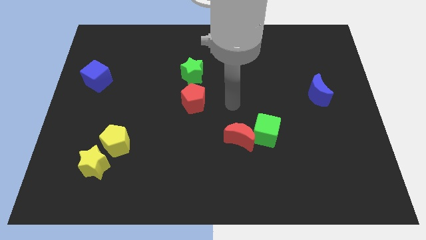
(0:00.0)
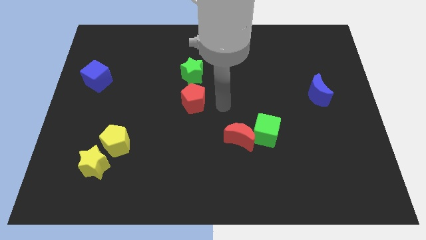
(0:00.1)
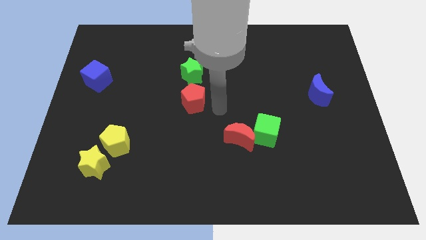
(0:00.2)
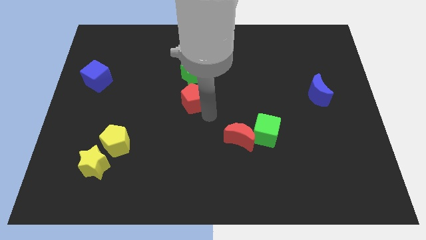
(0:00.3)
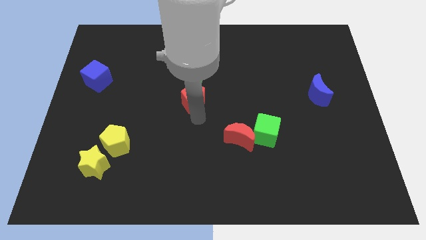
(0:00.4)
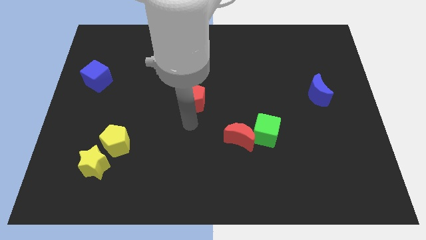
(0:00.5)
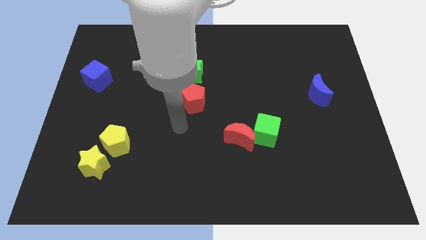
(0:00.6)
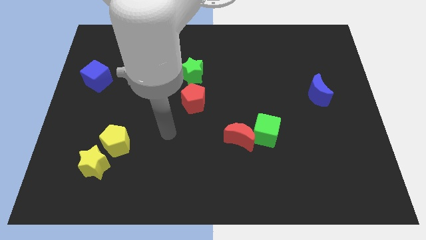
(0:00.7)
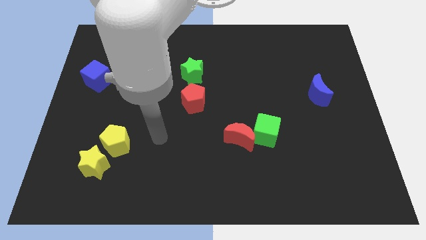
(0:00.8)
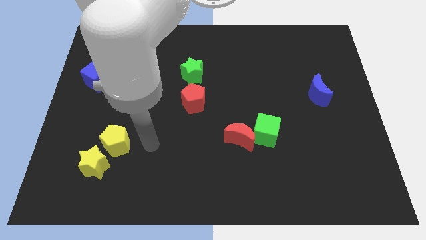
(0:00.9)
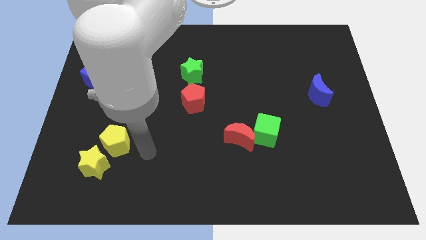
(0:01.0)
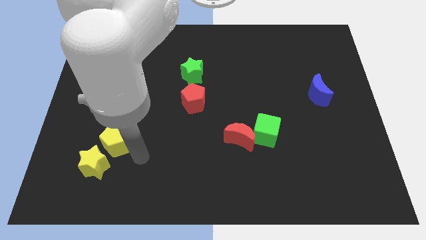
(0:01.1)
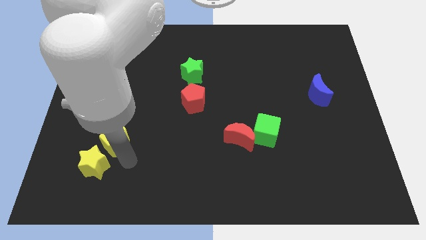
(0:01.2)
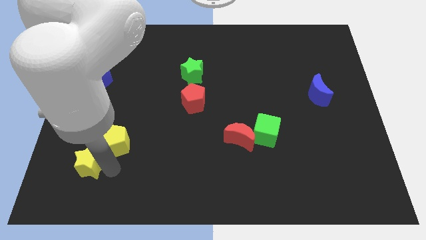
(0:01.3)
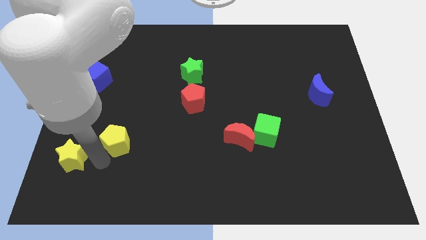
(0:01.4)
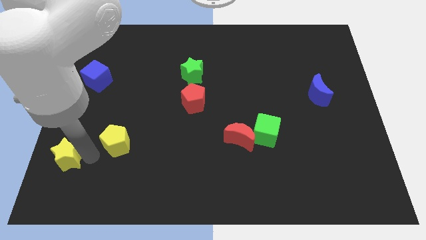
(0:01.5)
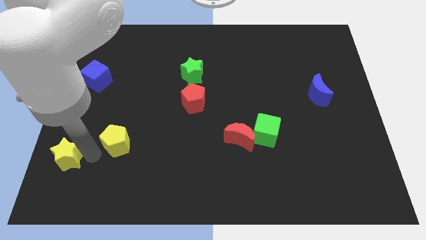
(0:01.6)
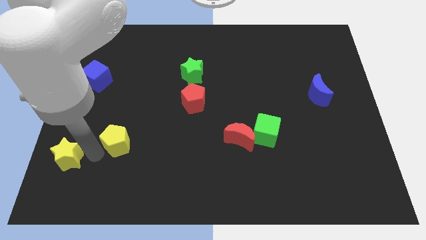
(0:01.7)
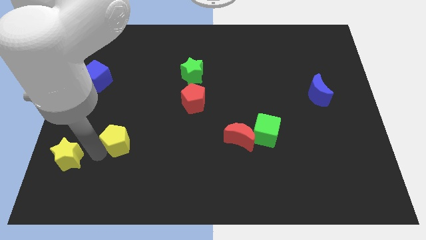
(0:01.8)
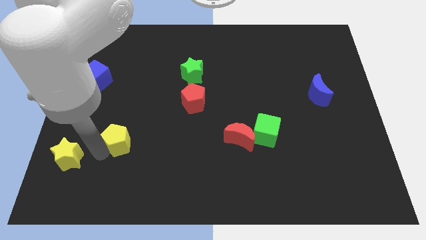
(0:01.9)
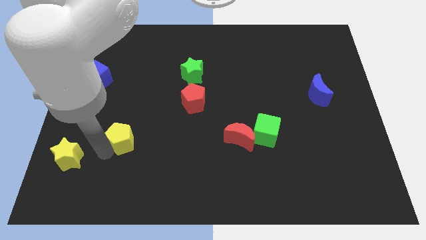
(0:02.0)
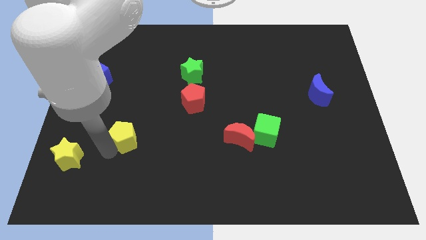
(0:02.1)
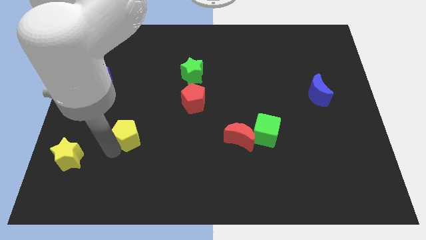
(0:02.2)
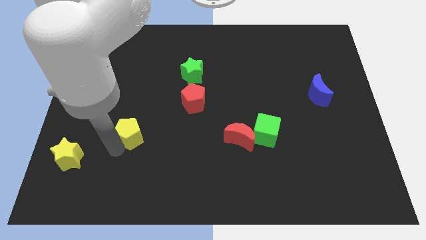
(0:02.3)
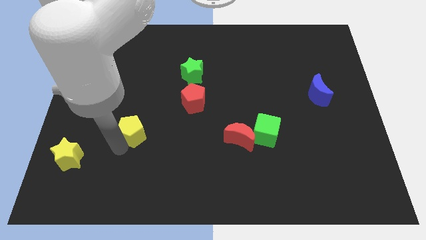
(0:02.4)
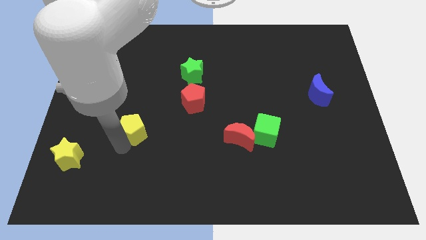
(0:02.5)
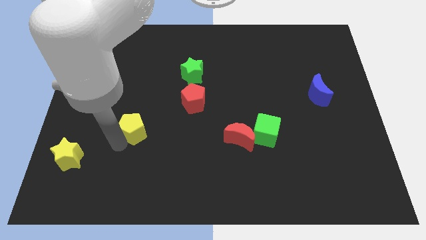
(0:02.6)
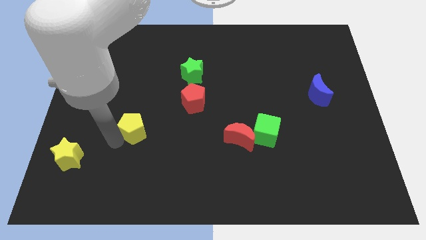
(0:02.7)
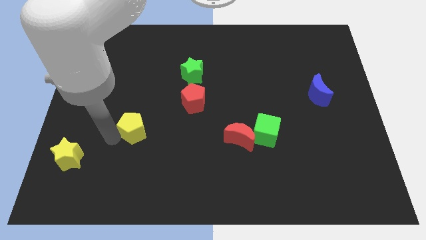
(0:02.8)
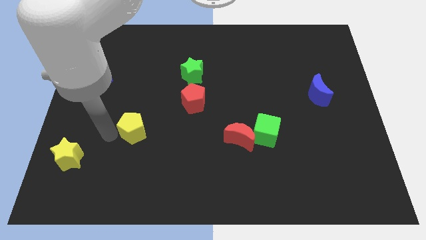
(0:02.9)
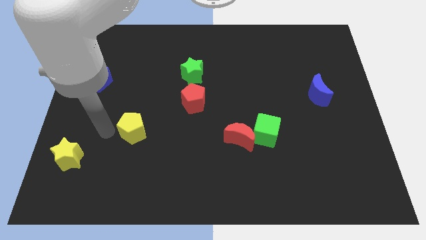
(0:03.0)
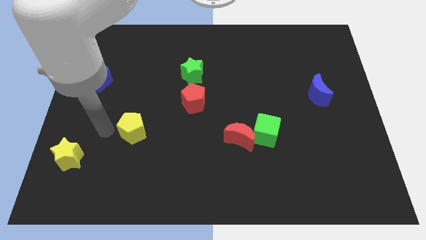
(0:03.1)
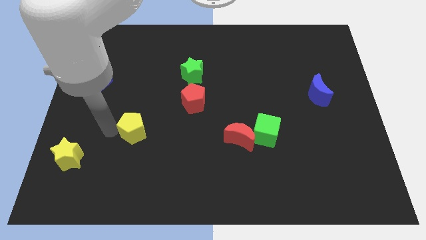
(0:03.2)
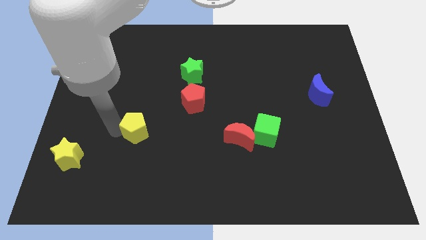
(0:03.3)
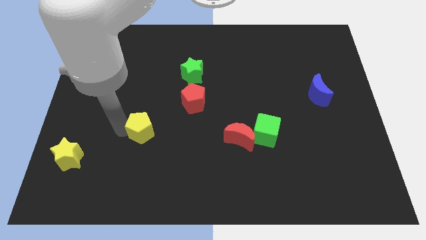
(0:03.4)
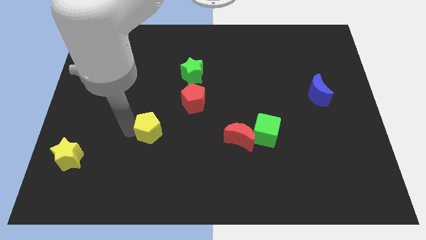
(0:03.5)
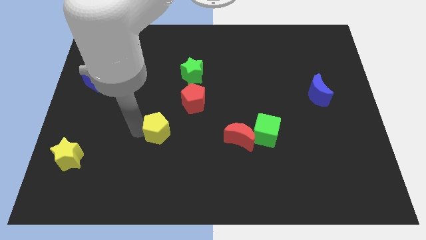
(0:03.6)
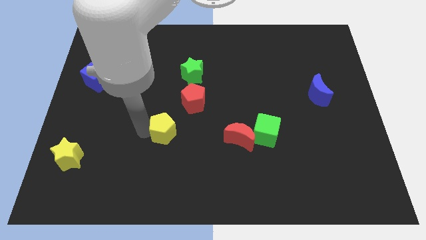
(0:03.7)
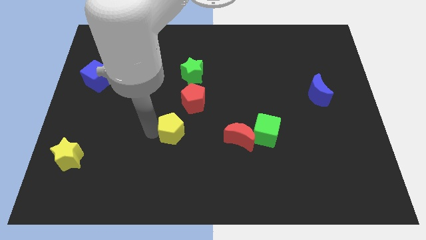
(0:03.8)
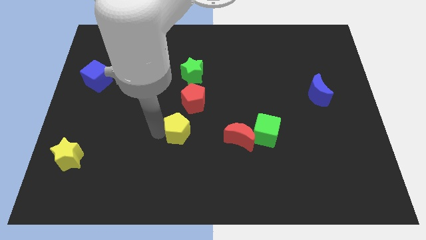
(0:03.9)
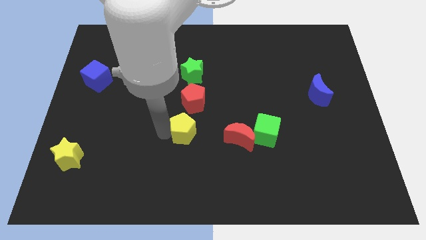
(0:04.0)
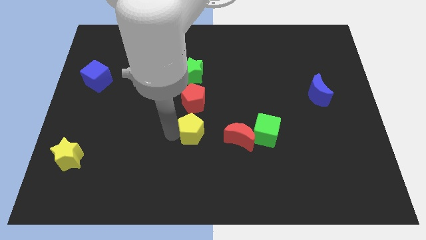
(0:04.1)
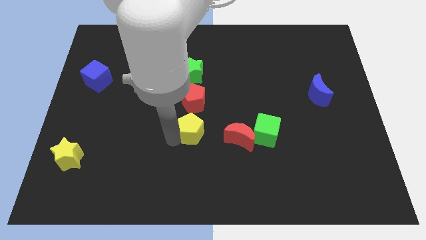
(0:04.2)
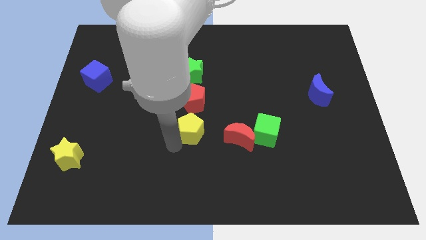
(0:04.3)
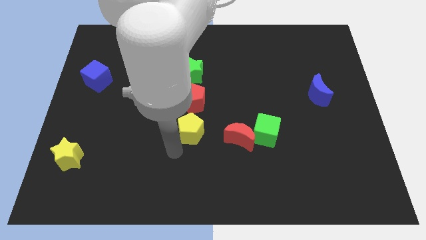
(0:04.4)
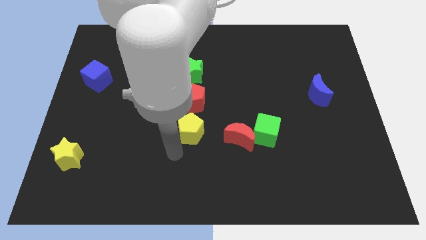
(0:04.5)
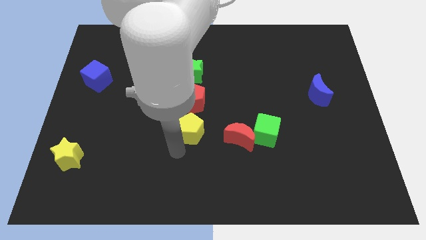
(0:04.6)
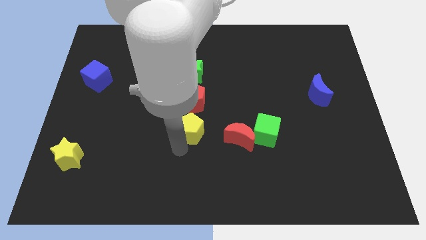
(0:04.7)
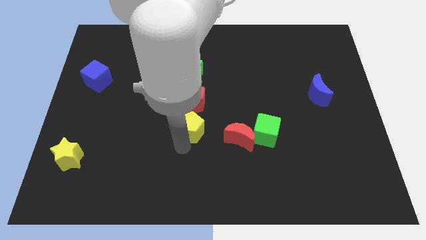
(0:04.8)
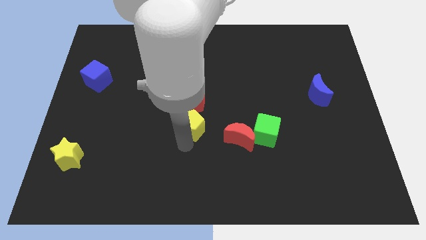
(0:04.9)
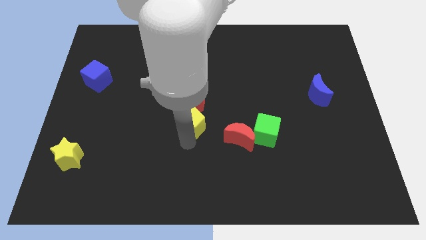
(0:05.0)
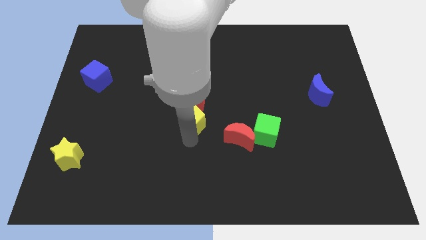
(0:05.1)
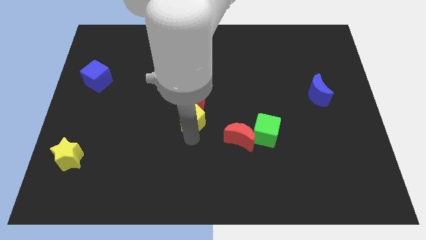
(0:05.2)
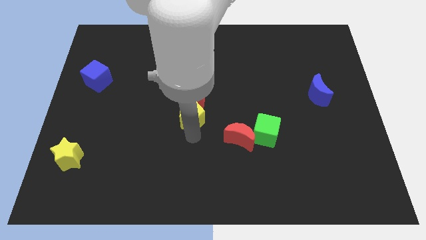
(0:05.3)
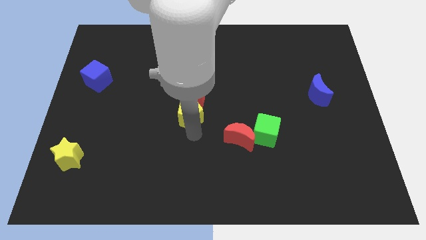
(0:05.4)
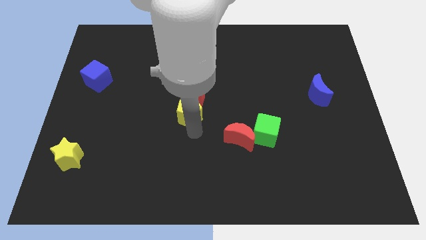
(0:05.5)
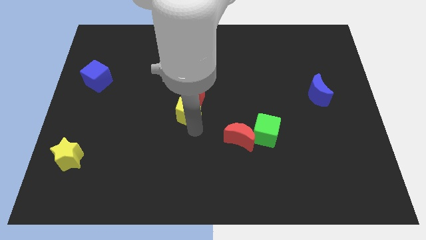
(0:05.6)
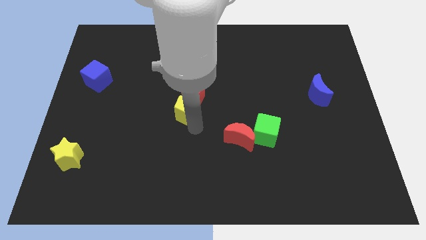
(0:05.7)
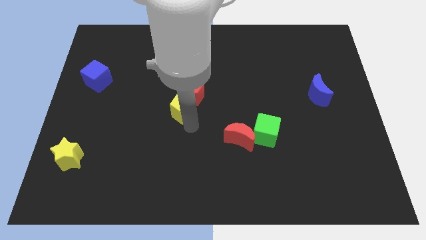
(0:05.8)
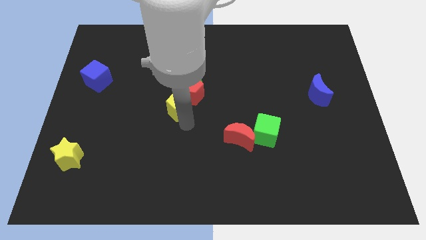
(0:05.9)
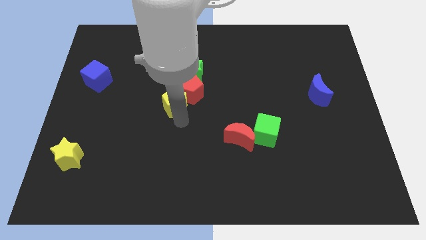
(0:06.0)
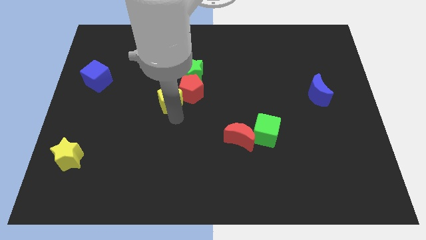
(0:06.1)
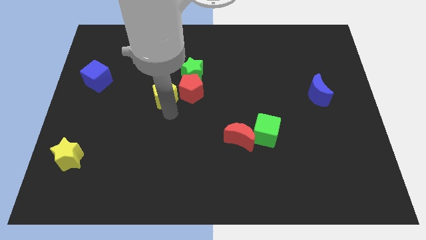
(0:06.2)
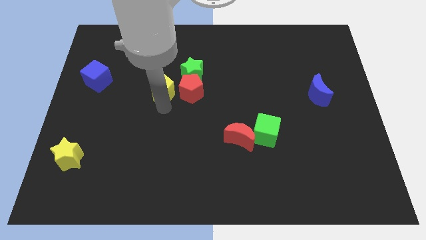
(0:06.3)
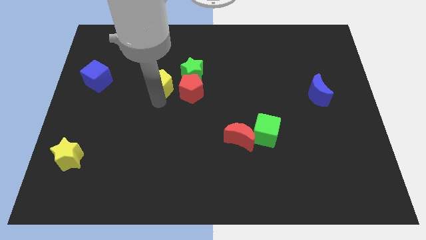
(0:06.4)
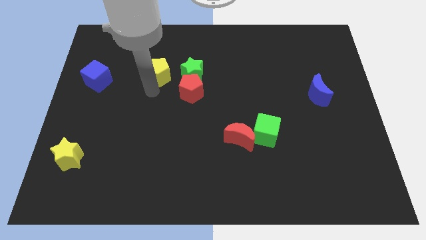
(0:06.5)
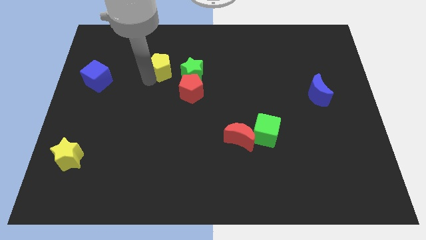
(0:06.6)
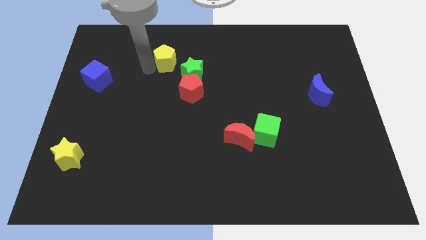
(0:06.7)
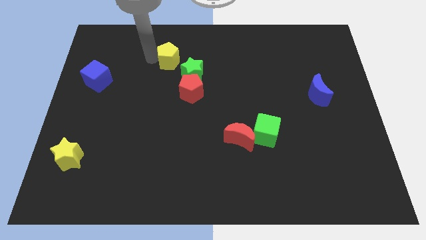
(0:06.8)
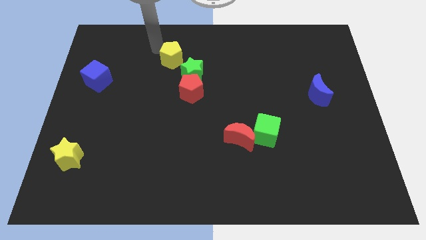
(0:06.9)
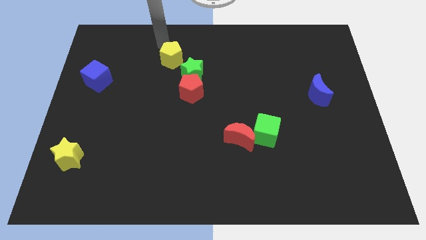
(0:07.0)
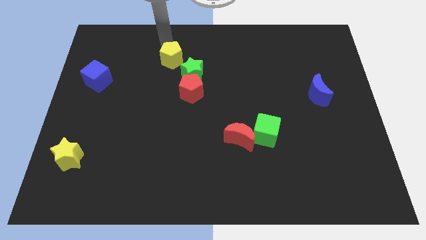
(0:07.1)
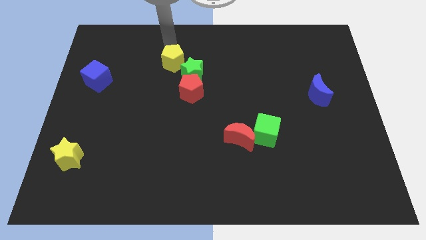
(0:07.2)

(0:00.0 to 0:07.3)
move the yellow pentagon upwards and then right

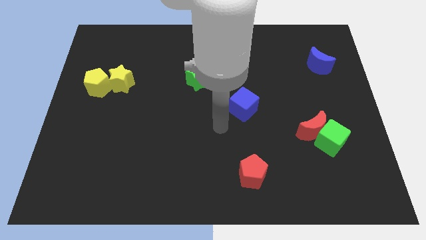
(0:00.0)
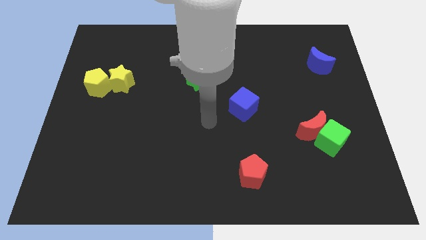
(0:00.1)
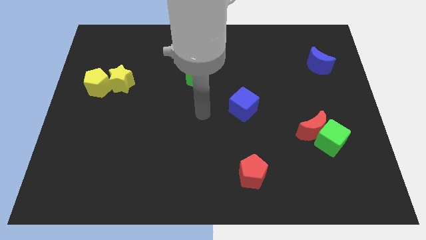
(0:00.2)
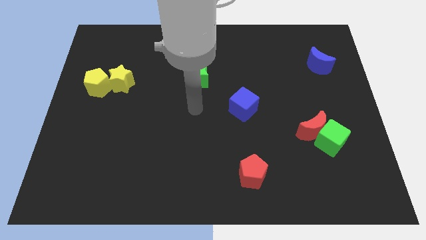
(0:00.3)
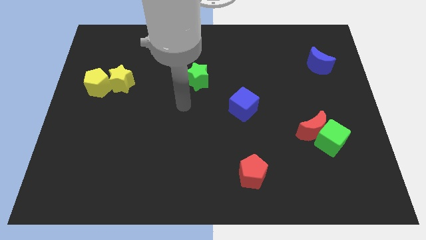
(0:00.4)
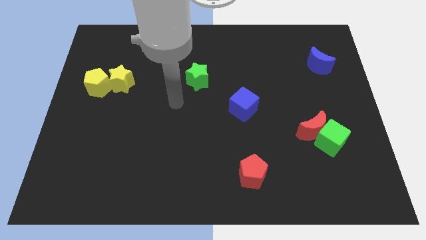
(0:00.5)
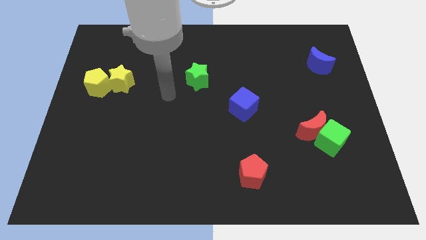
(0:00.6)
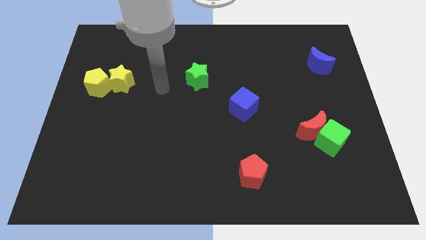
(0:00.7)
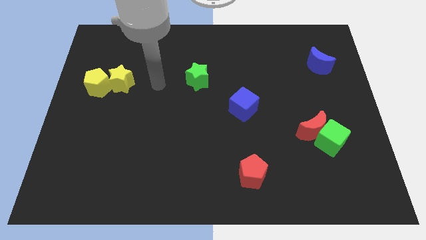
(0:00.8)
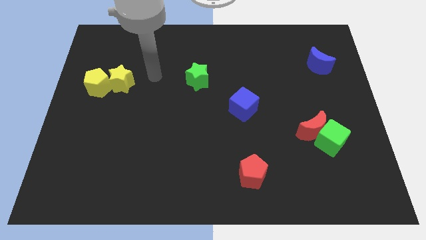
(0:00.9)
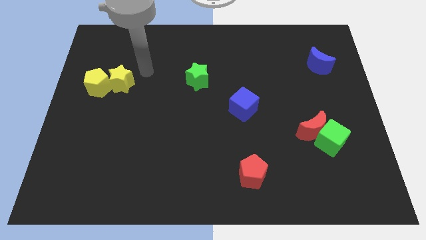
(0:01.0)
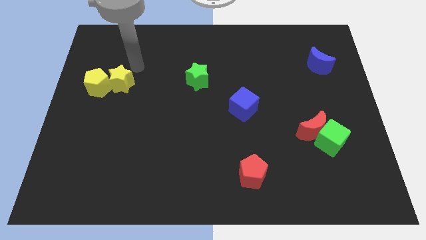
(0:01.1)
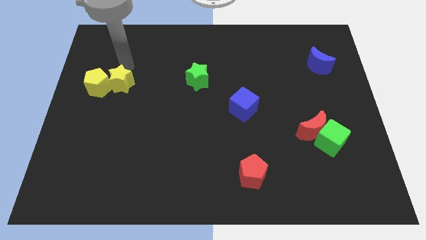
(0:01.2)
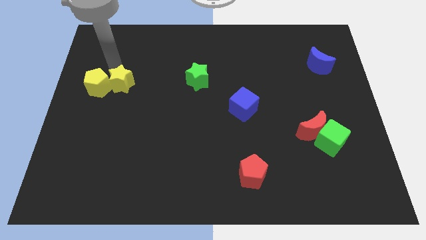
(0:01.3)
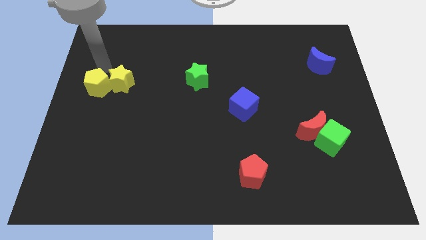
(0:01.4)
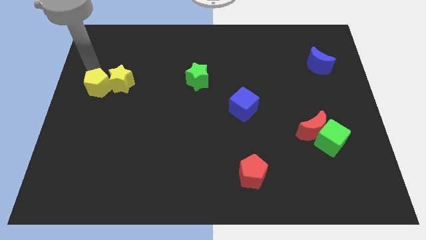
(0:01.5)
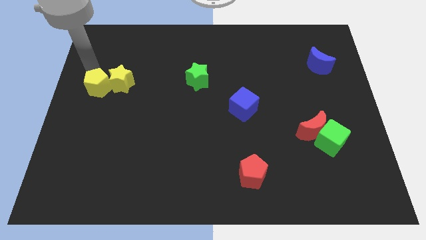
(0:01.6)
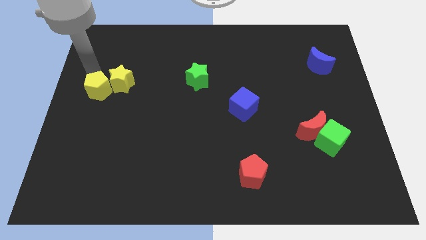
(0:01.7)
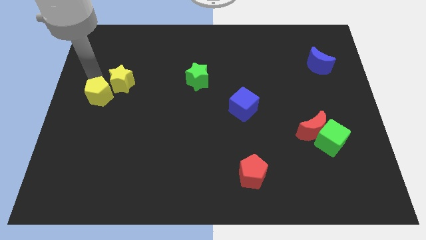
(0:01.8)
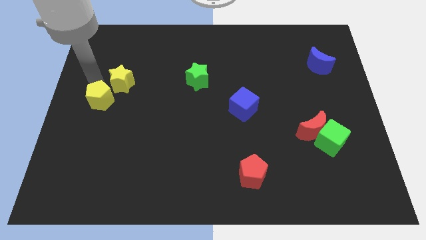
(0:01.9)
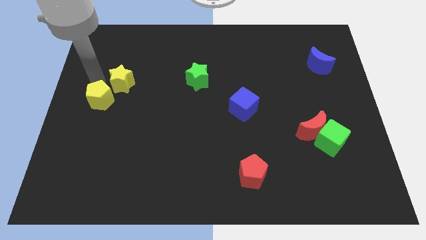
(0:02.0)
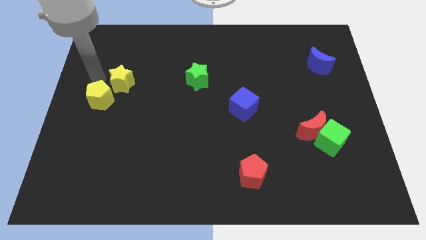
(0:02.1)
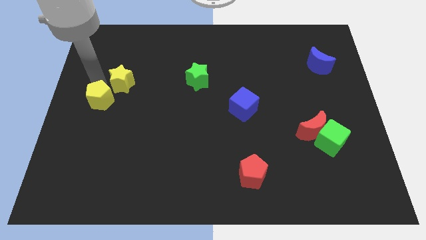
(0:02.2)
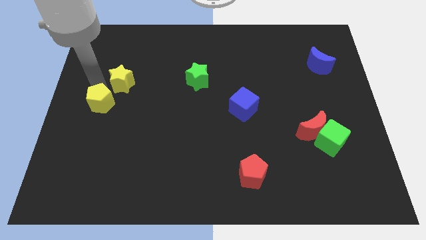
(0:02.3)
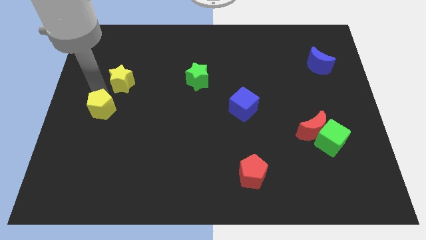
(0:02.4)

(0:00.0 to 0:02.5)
slide the yellow pentagon downwards somewhat
